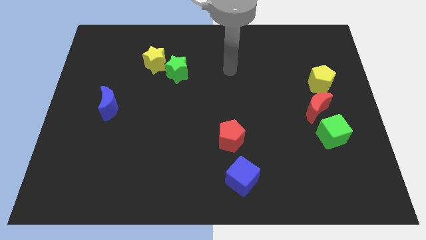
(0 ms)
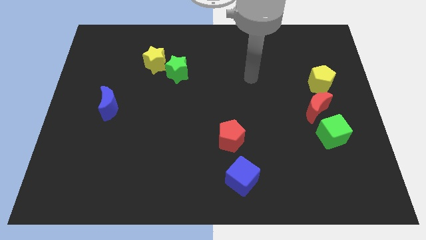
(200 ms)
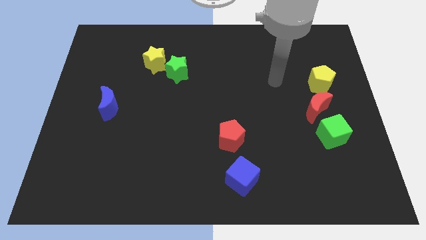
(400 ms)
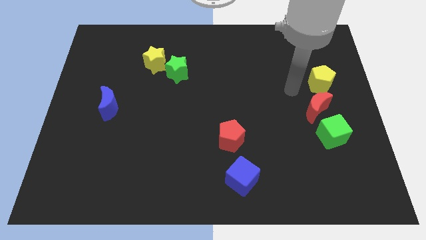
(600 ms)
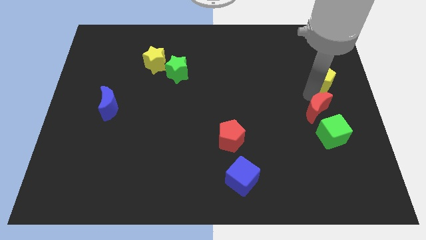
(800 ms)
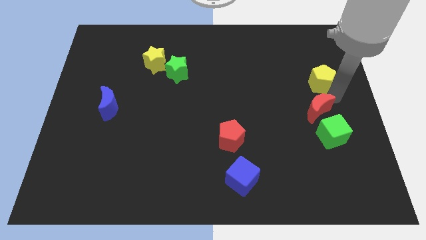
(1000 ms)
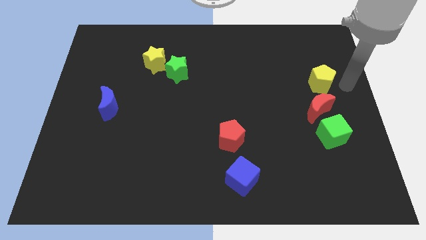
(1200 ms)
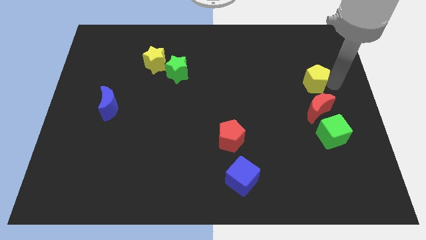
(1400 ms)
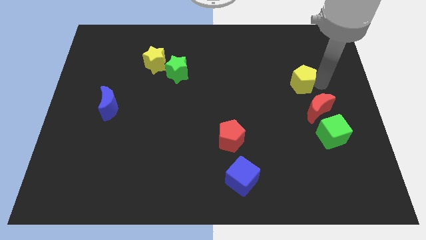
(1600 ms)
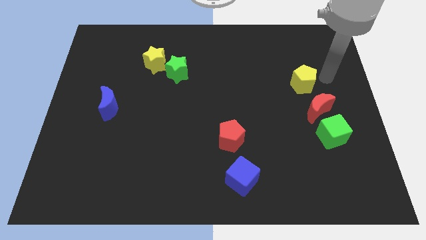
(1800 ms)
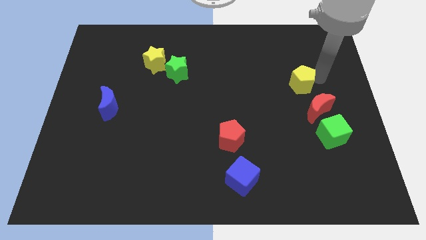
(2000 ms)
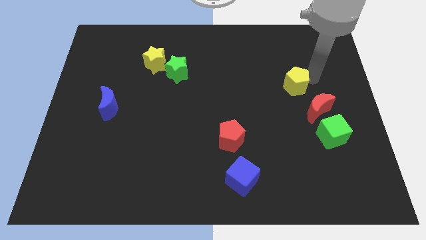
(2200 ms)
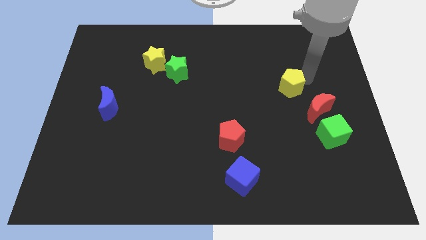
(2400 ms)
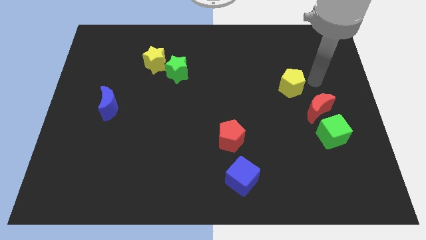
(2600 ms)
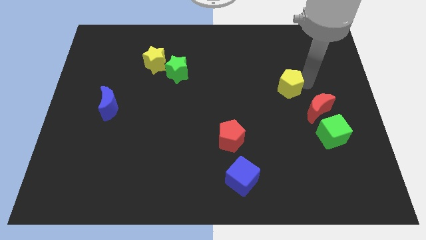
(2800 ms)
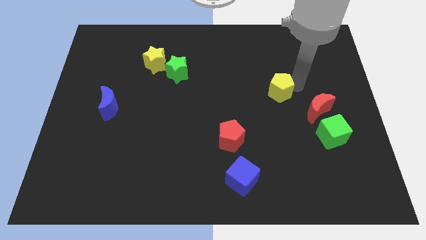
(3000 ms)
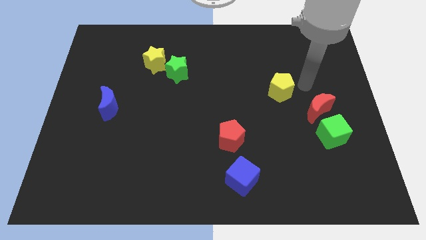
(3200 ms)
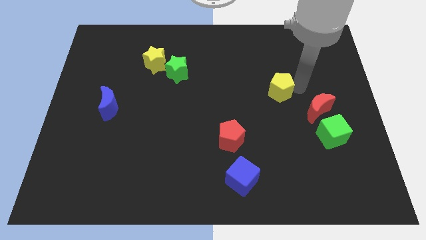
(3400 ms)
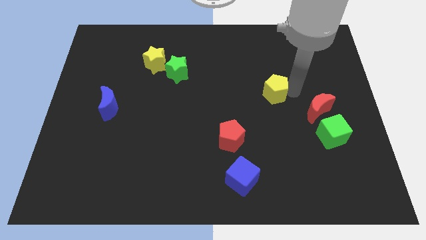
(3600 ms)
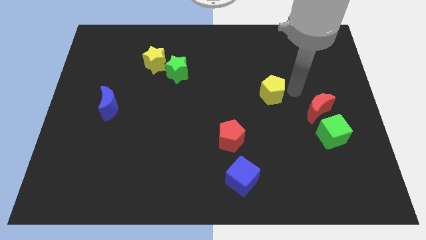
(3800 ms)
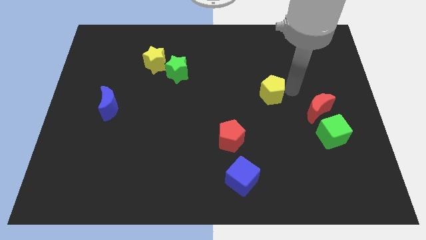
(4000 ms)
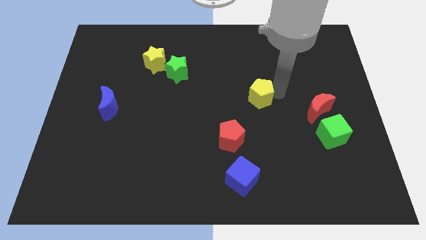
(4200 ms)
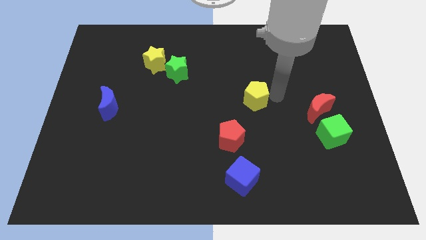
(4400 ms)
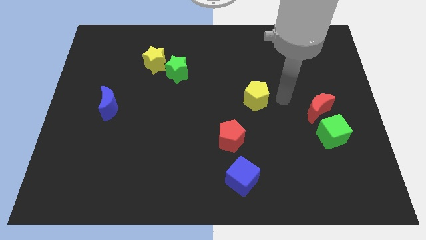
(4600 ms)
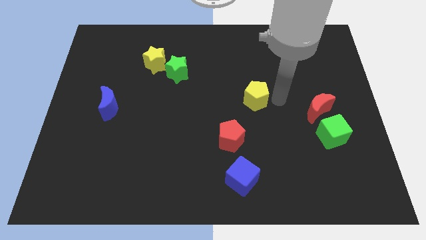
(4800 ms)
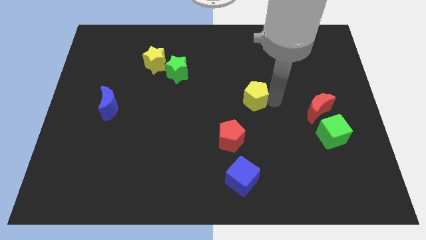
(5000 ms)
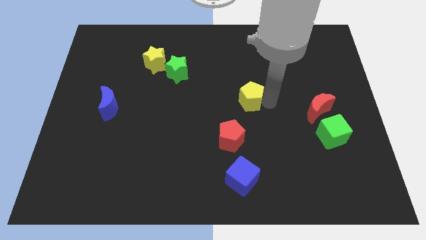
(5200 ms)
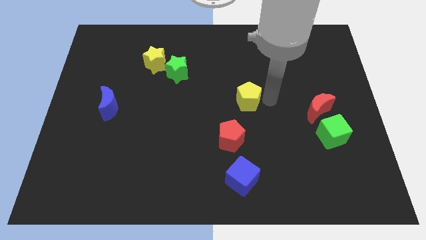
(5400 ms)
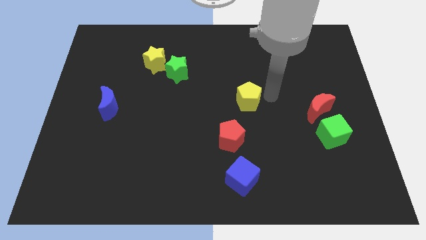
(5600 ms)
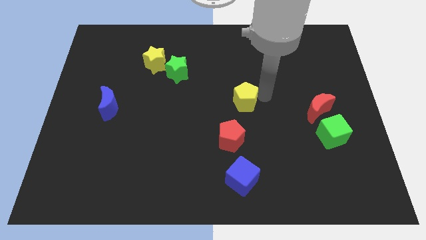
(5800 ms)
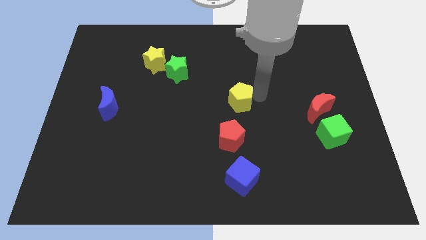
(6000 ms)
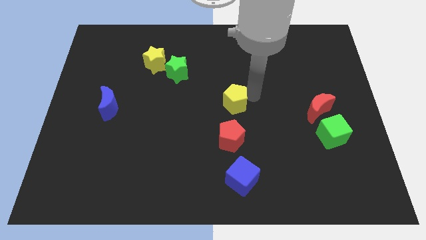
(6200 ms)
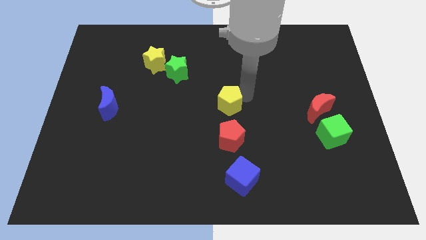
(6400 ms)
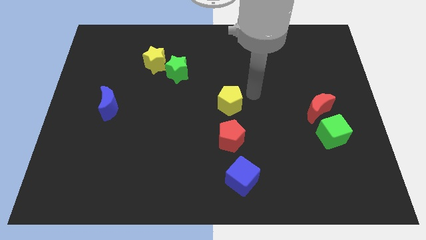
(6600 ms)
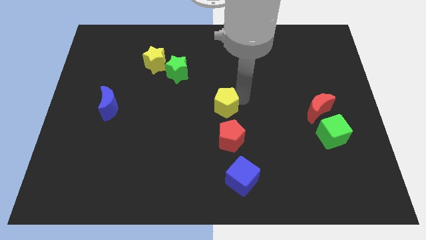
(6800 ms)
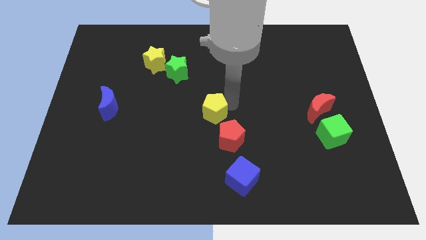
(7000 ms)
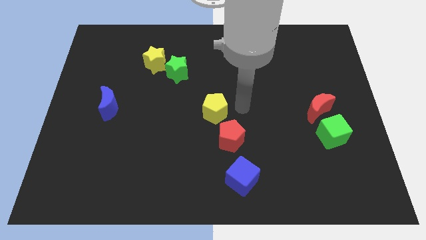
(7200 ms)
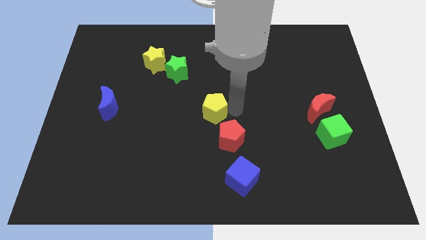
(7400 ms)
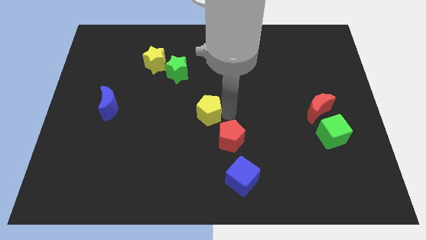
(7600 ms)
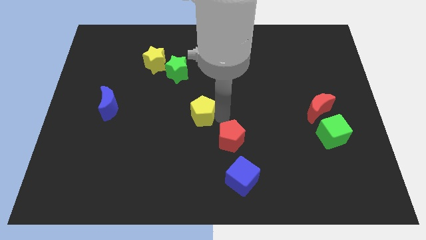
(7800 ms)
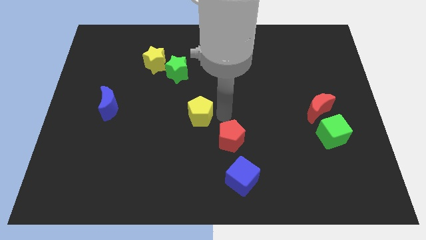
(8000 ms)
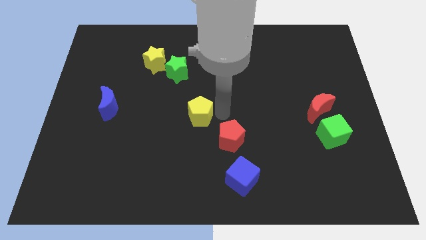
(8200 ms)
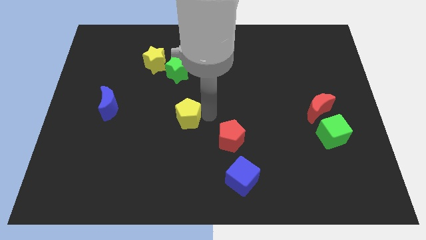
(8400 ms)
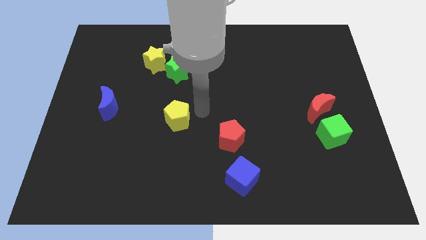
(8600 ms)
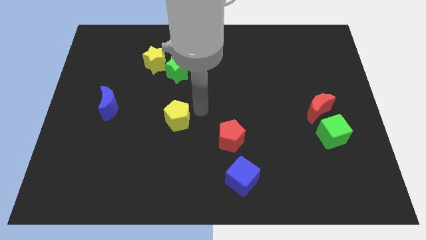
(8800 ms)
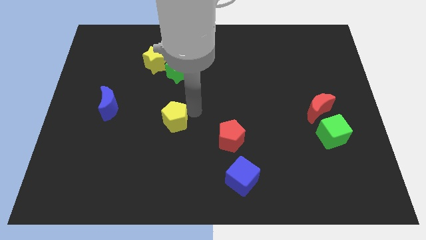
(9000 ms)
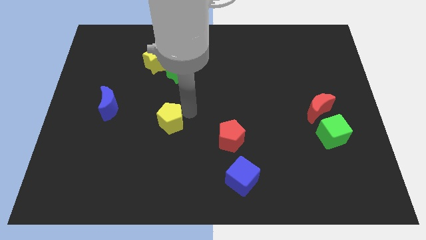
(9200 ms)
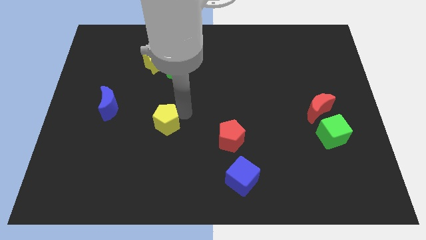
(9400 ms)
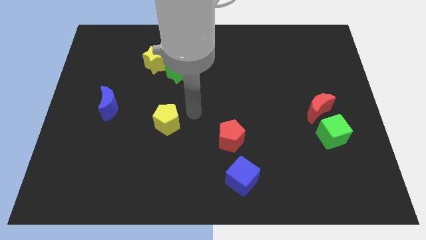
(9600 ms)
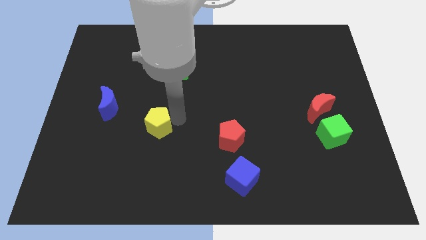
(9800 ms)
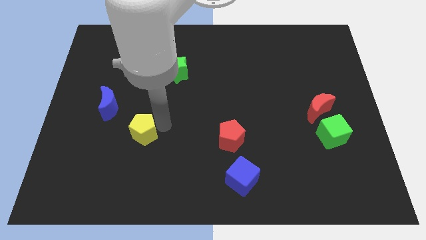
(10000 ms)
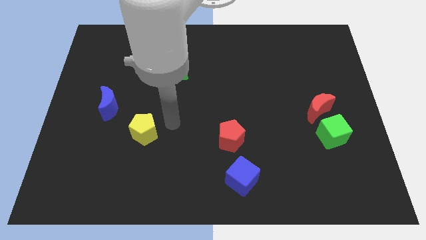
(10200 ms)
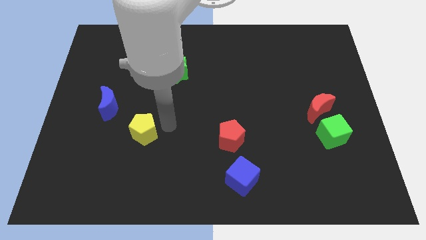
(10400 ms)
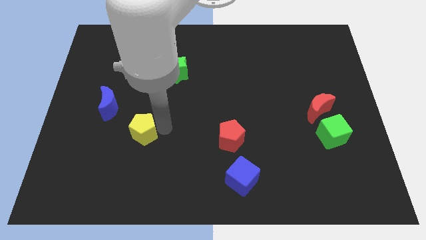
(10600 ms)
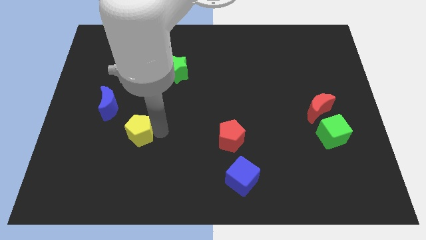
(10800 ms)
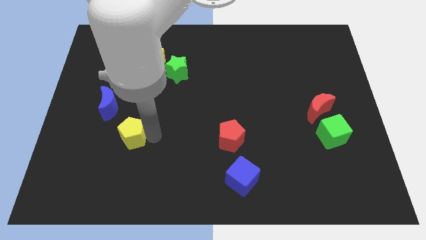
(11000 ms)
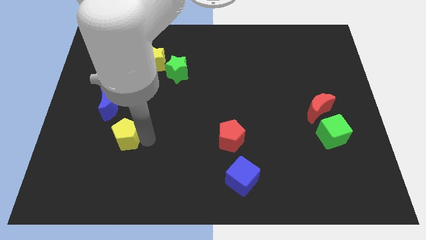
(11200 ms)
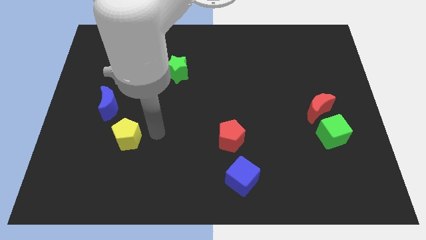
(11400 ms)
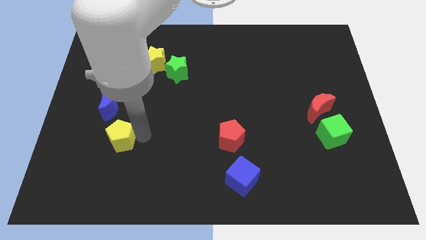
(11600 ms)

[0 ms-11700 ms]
put the yellow pentagon below the blue moon

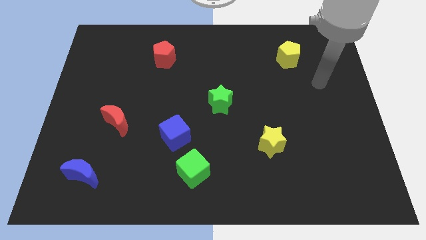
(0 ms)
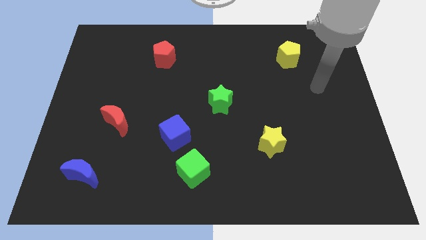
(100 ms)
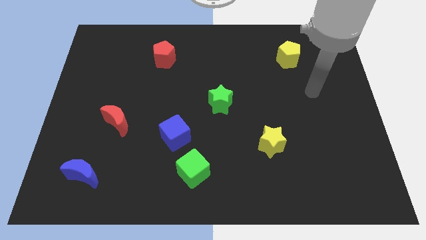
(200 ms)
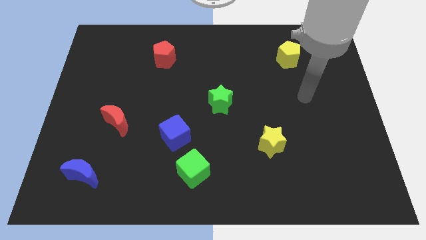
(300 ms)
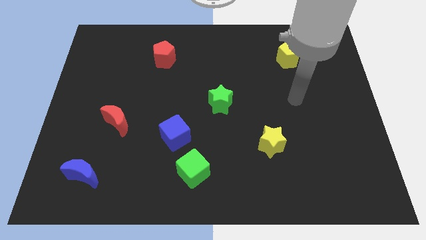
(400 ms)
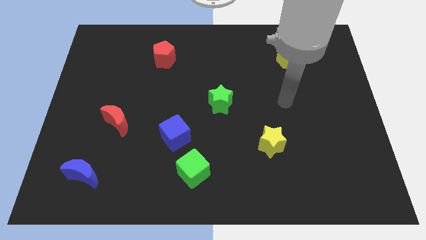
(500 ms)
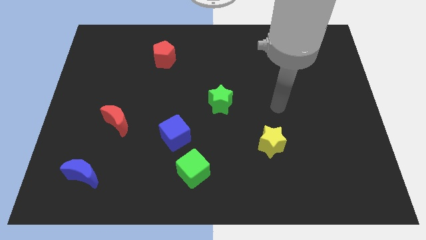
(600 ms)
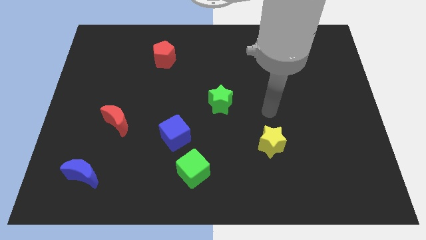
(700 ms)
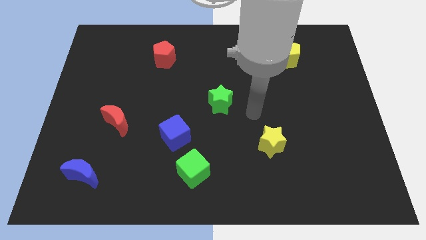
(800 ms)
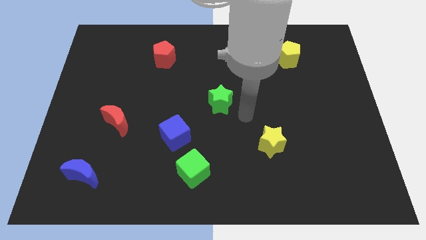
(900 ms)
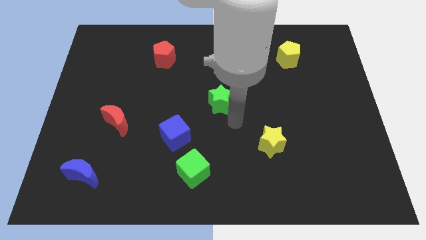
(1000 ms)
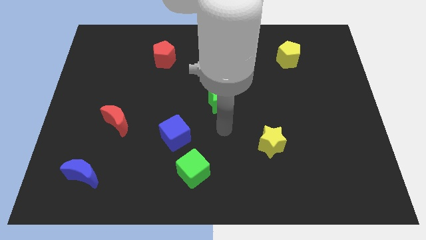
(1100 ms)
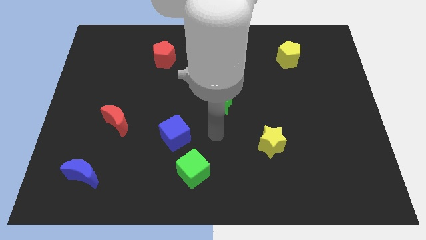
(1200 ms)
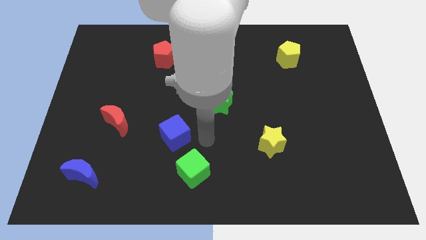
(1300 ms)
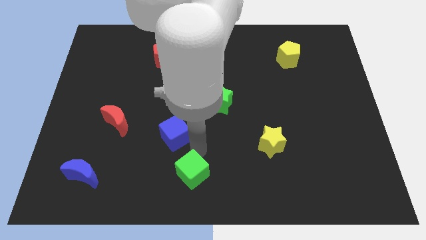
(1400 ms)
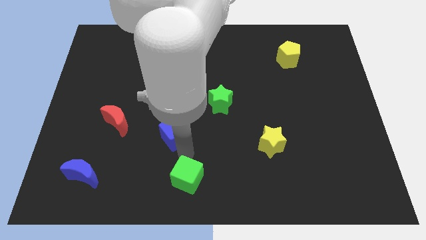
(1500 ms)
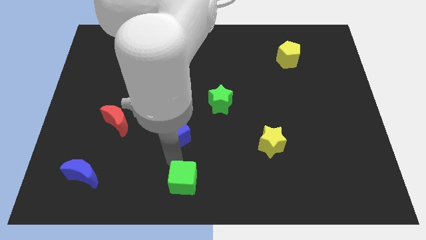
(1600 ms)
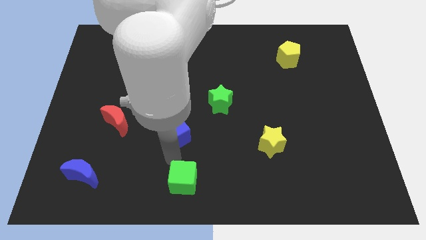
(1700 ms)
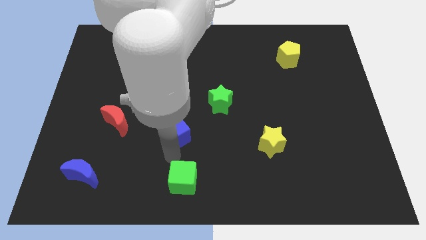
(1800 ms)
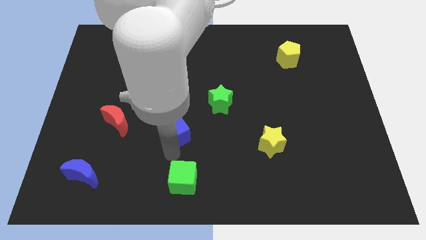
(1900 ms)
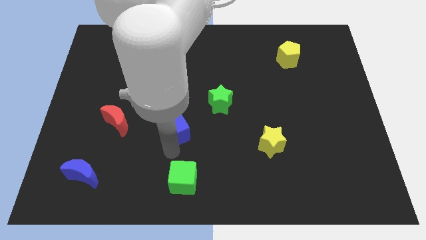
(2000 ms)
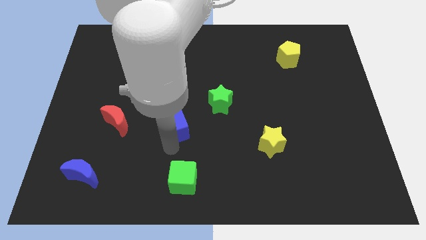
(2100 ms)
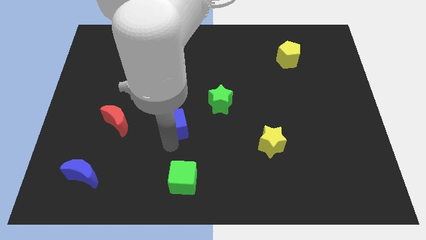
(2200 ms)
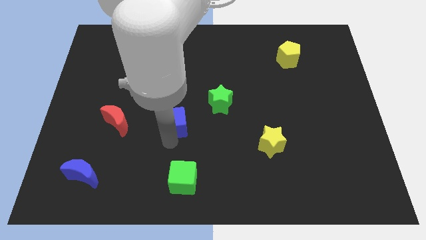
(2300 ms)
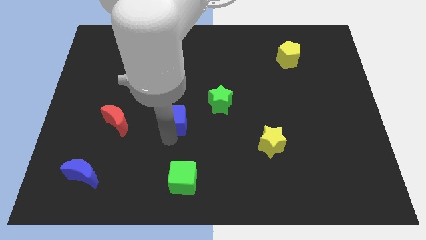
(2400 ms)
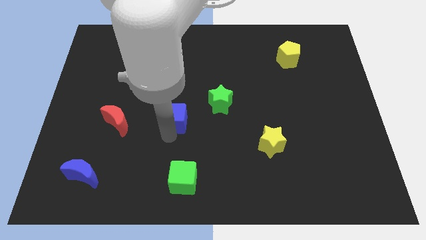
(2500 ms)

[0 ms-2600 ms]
push the blue cube to the left side of the green star
